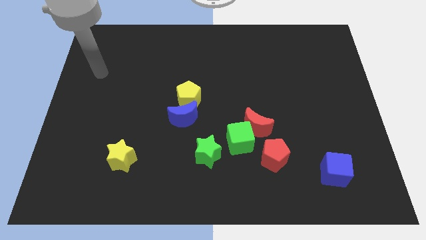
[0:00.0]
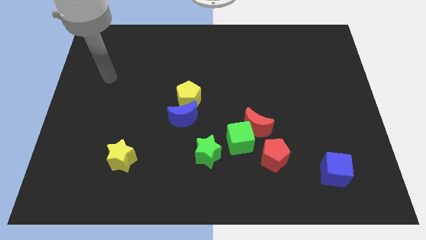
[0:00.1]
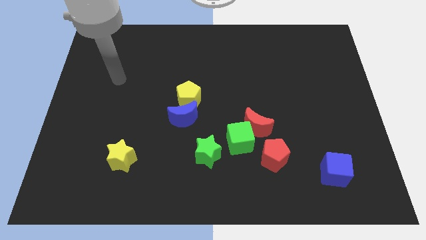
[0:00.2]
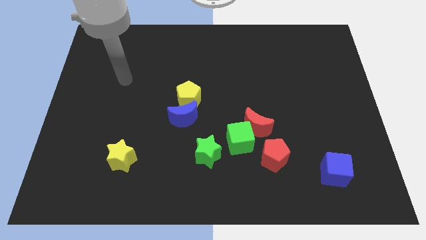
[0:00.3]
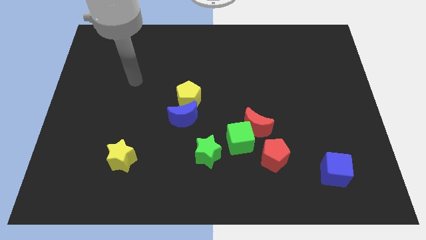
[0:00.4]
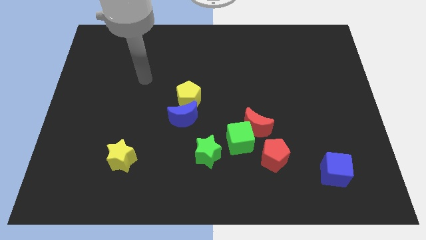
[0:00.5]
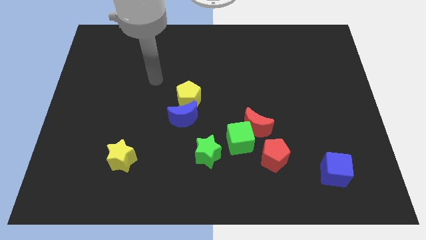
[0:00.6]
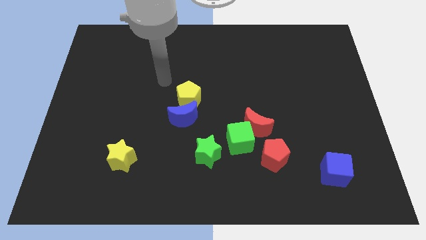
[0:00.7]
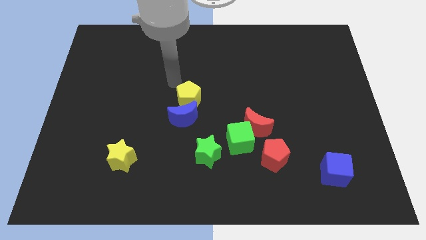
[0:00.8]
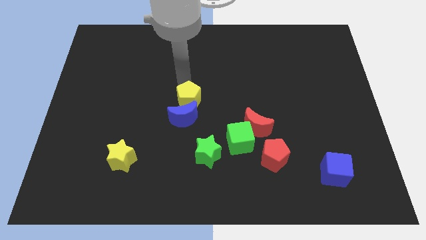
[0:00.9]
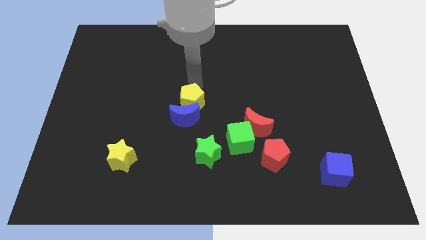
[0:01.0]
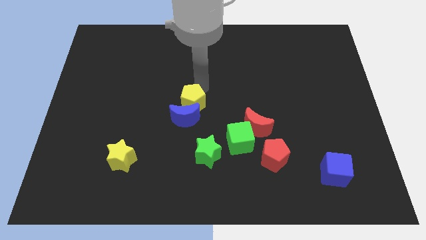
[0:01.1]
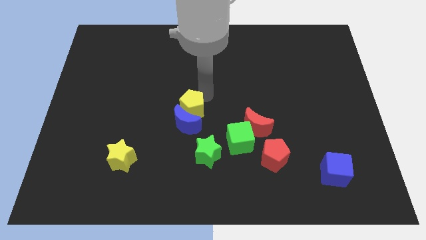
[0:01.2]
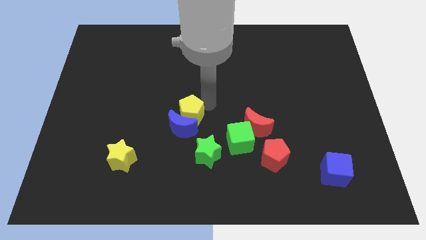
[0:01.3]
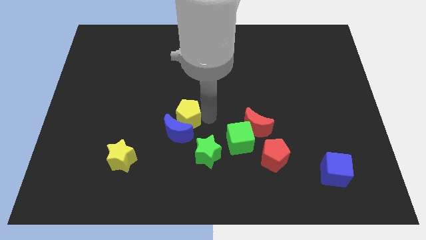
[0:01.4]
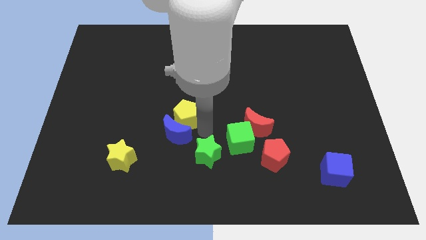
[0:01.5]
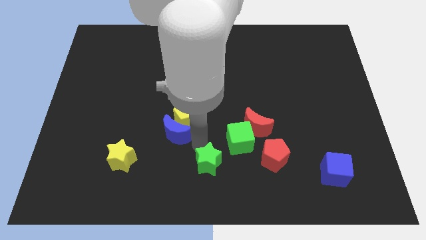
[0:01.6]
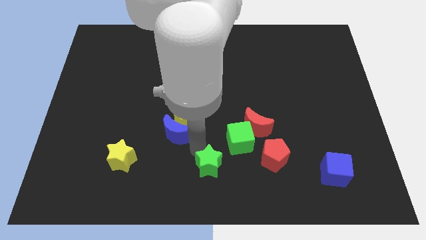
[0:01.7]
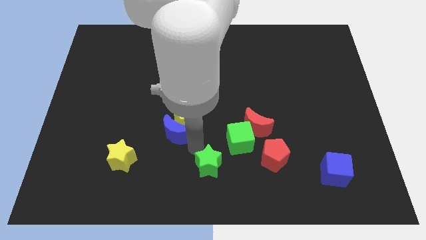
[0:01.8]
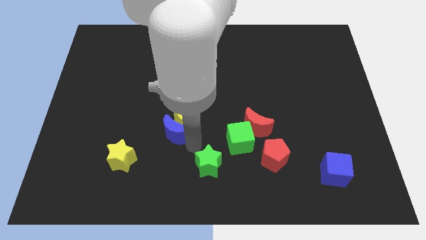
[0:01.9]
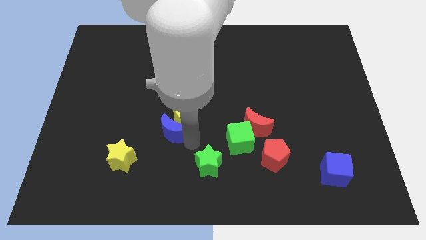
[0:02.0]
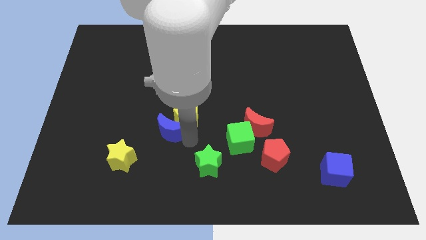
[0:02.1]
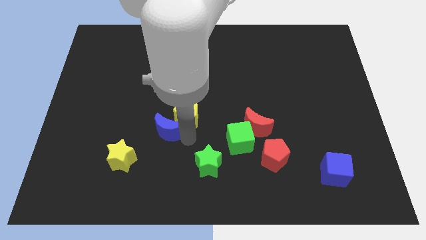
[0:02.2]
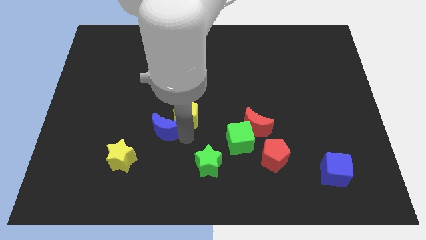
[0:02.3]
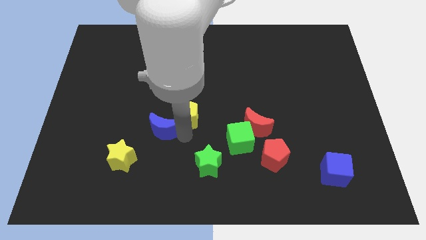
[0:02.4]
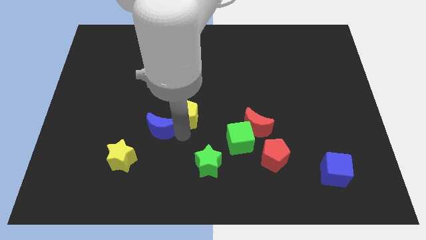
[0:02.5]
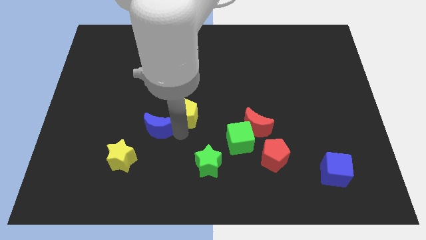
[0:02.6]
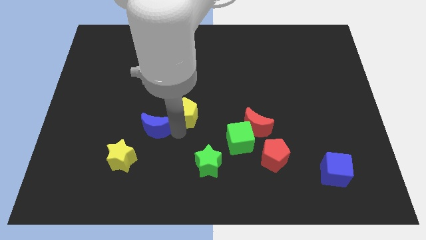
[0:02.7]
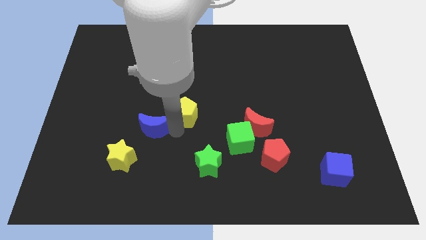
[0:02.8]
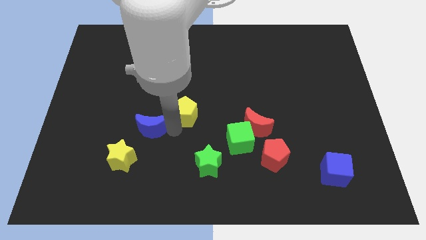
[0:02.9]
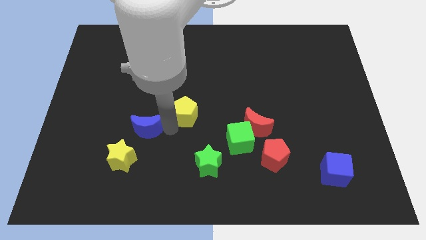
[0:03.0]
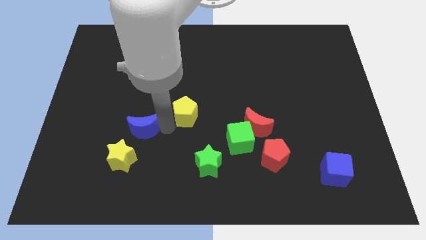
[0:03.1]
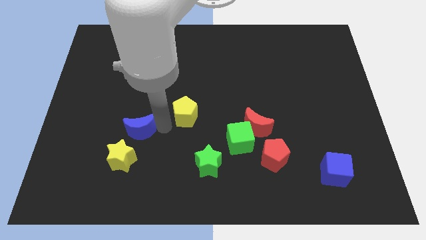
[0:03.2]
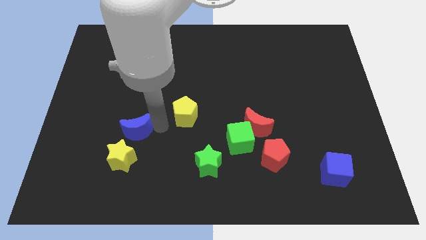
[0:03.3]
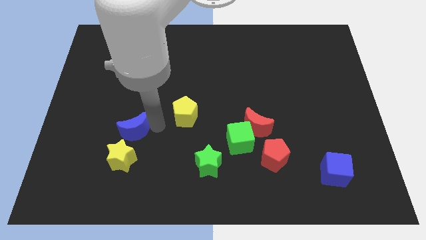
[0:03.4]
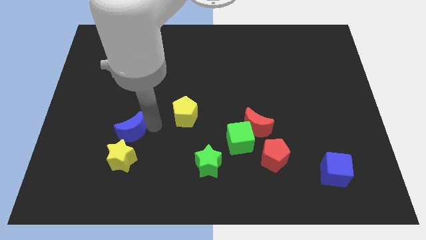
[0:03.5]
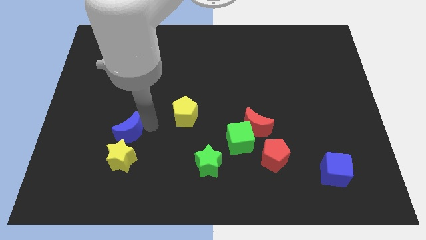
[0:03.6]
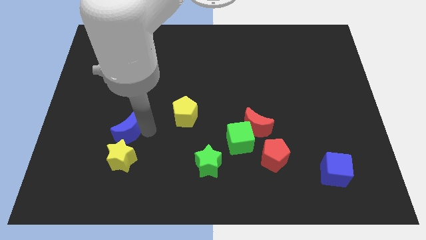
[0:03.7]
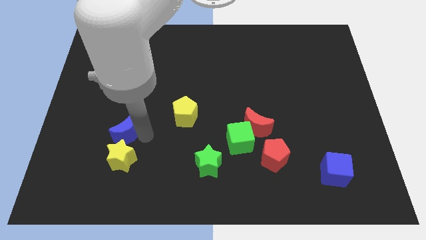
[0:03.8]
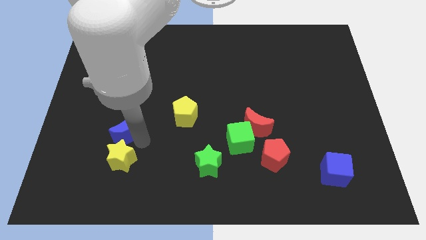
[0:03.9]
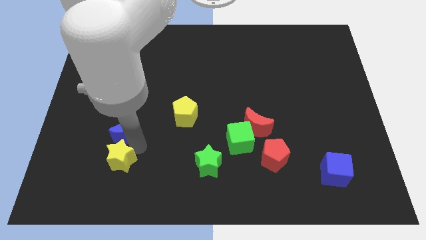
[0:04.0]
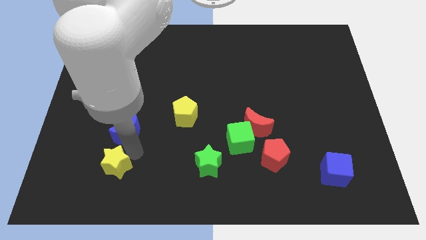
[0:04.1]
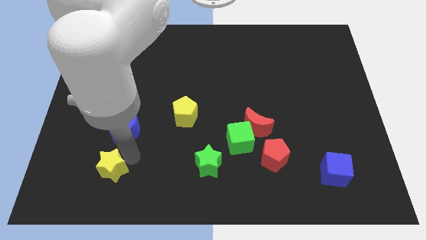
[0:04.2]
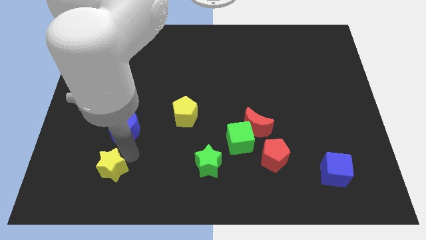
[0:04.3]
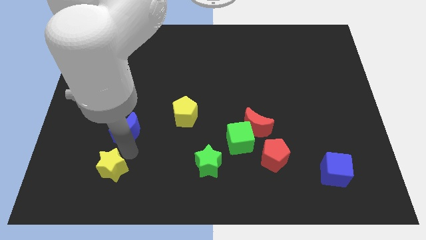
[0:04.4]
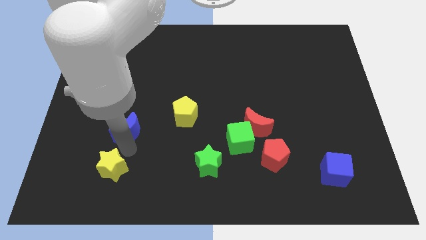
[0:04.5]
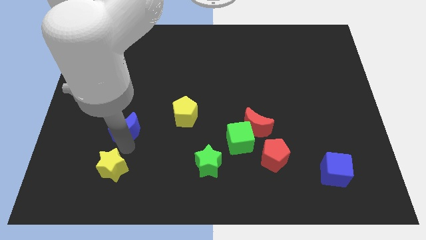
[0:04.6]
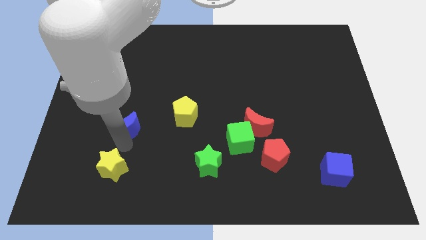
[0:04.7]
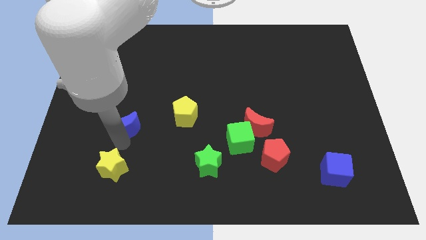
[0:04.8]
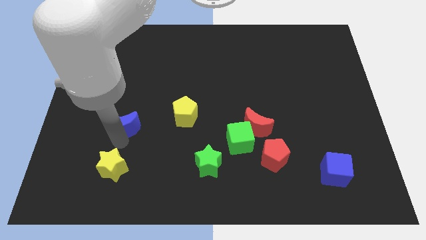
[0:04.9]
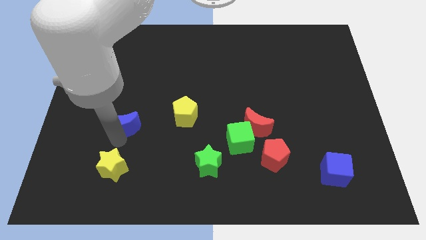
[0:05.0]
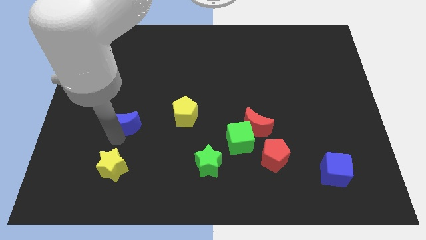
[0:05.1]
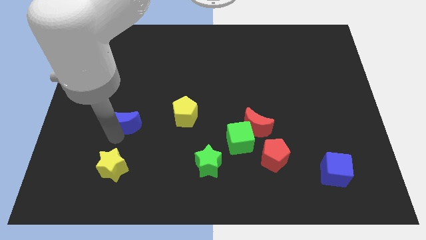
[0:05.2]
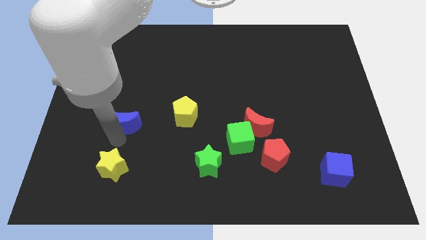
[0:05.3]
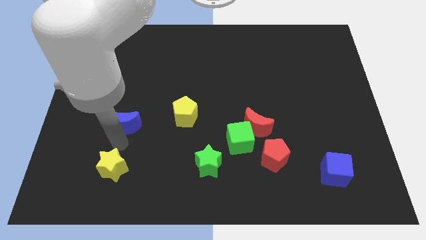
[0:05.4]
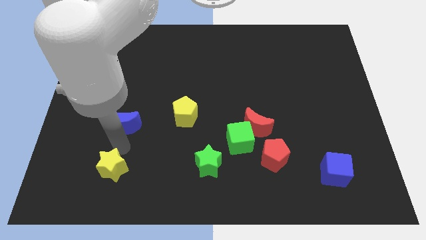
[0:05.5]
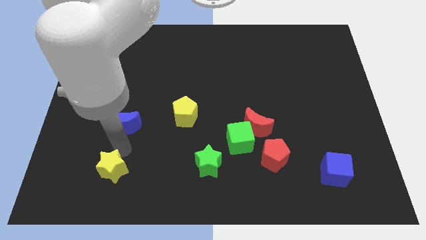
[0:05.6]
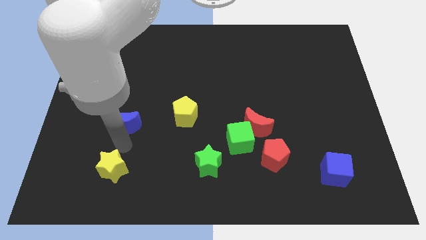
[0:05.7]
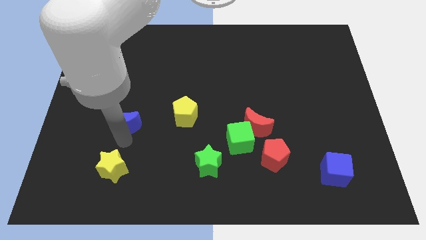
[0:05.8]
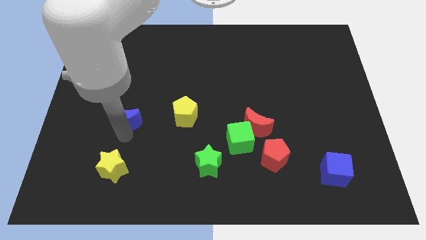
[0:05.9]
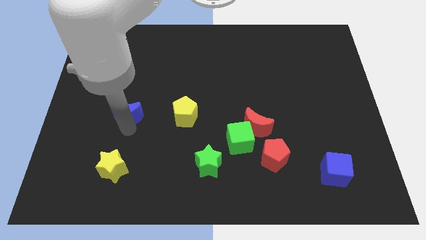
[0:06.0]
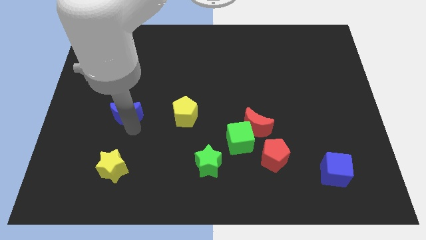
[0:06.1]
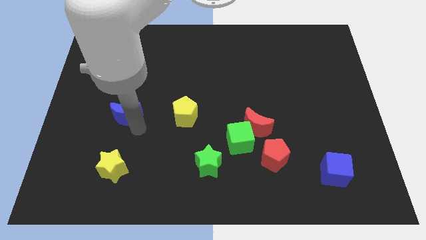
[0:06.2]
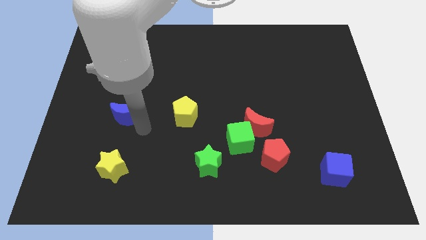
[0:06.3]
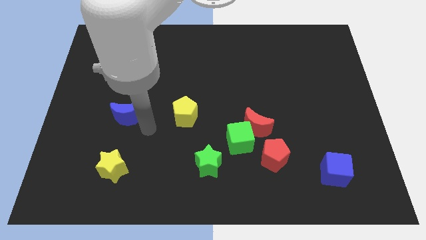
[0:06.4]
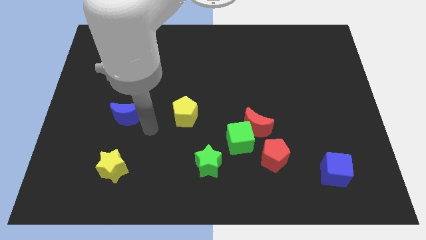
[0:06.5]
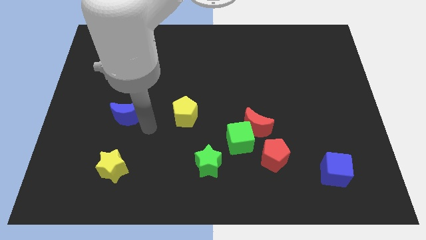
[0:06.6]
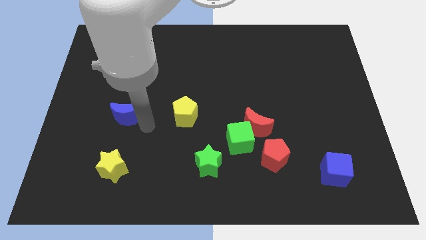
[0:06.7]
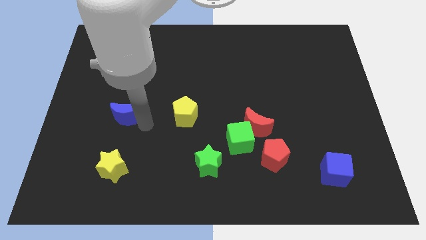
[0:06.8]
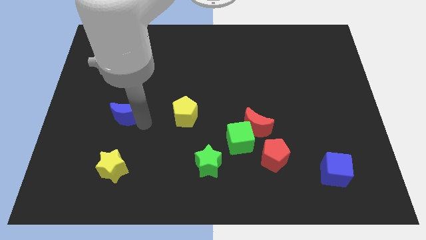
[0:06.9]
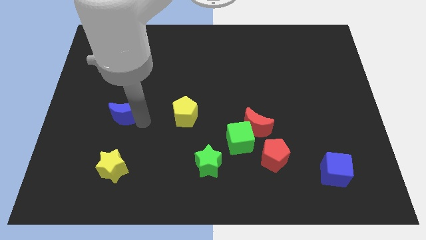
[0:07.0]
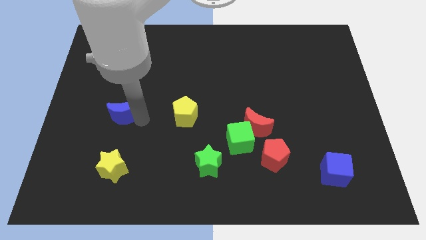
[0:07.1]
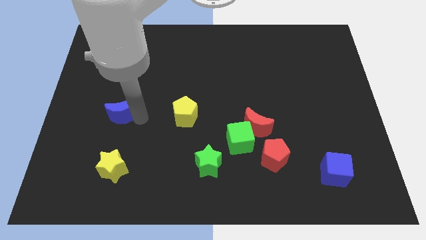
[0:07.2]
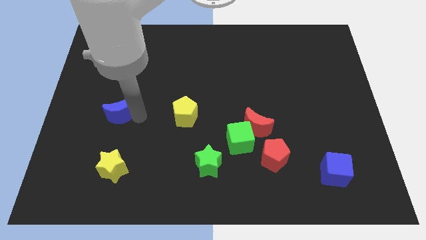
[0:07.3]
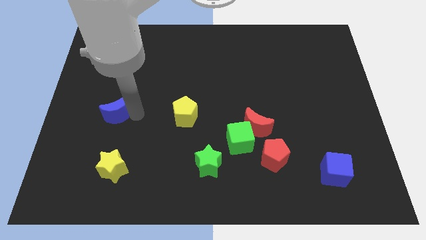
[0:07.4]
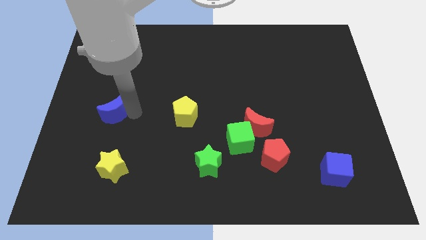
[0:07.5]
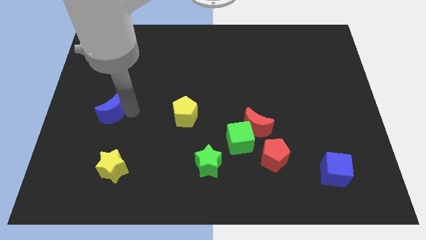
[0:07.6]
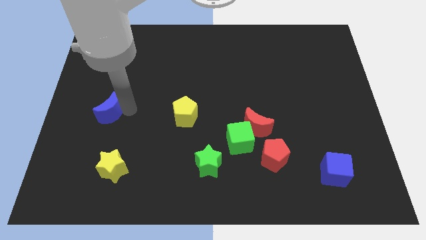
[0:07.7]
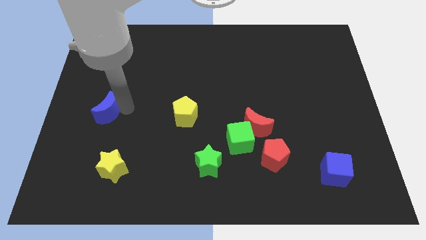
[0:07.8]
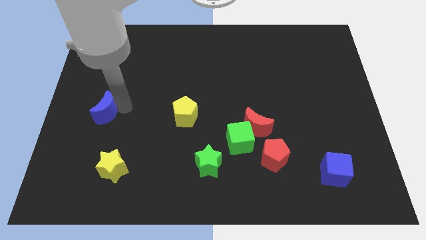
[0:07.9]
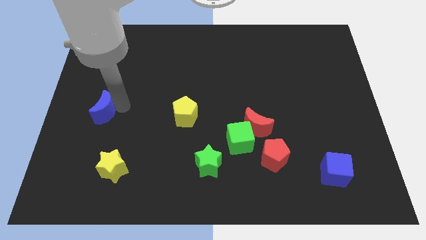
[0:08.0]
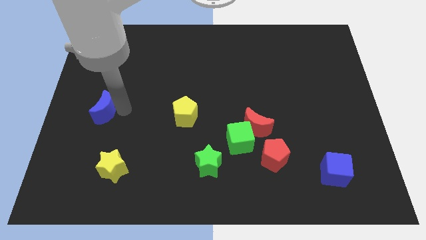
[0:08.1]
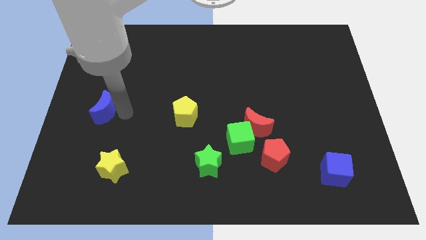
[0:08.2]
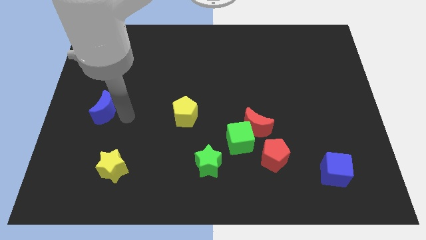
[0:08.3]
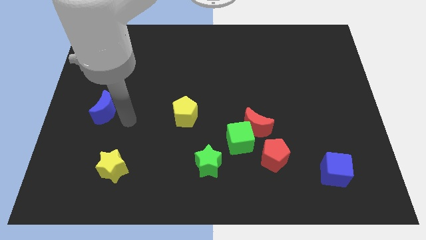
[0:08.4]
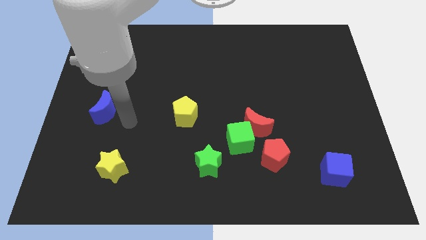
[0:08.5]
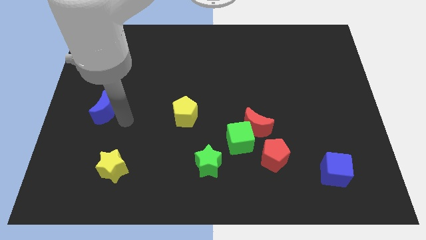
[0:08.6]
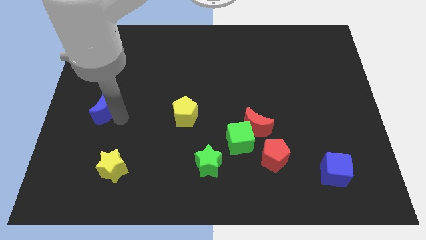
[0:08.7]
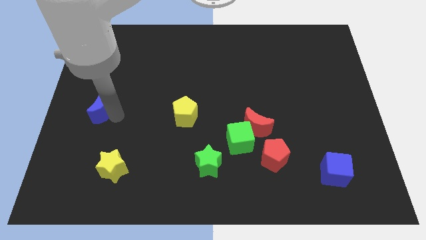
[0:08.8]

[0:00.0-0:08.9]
move the blue moon to the left side
